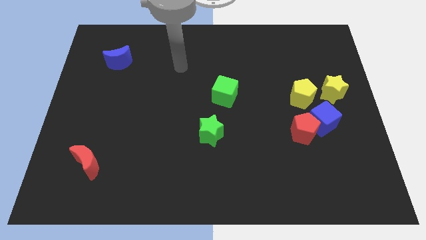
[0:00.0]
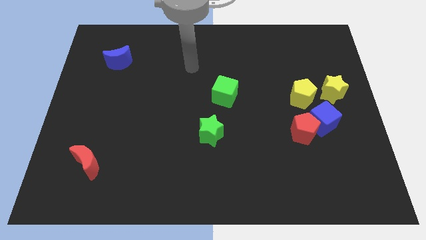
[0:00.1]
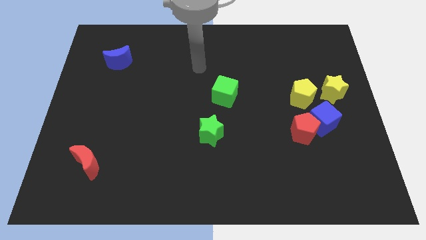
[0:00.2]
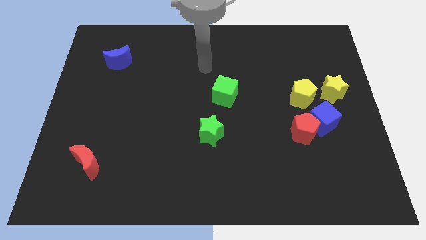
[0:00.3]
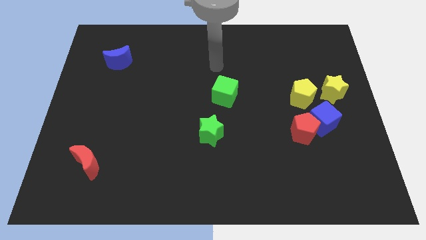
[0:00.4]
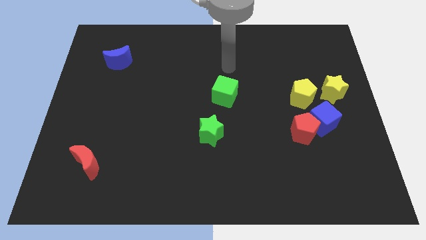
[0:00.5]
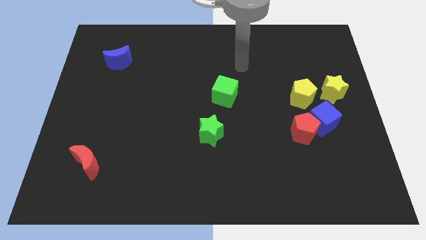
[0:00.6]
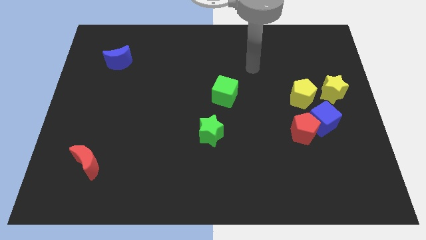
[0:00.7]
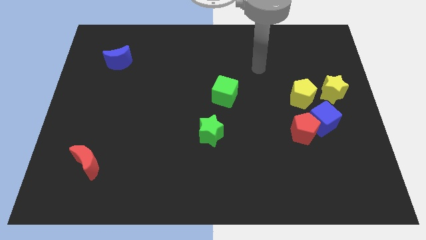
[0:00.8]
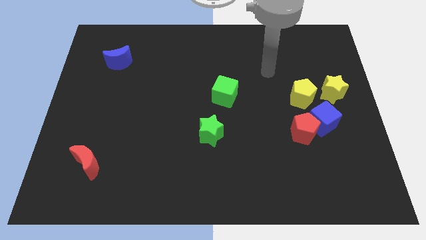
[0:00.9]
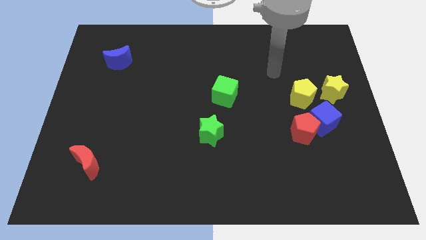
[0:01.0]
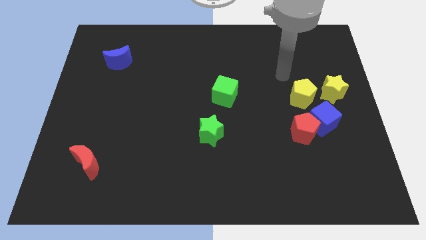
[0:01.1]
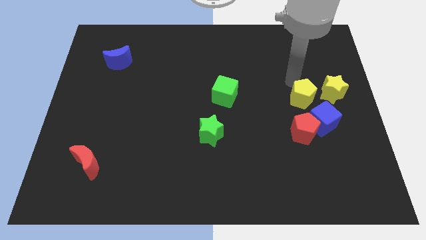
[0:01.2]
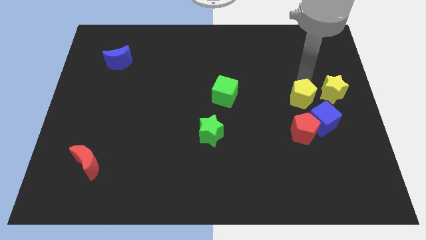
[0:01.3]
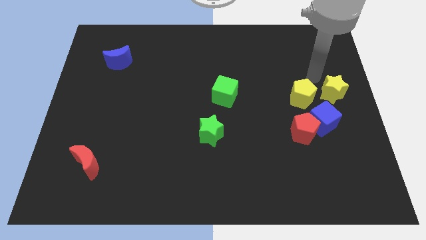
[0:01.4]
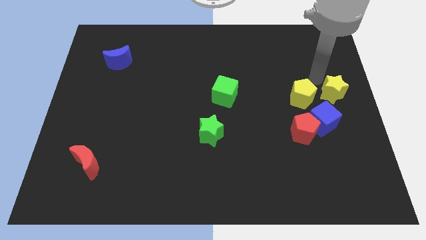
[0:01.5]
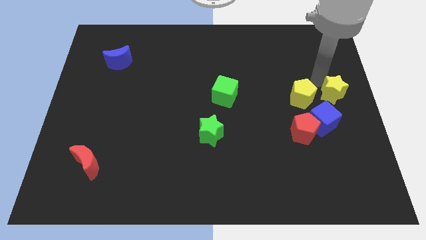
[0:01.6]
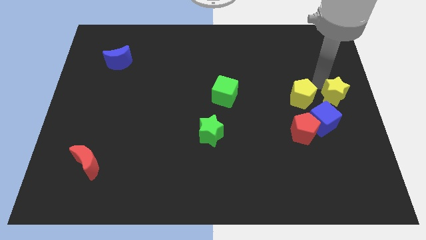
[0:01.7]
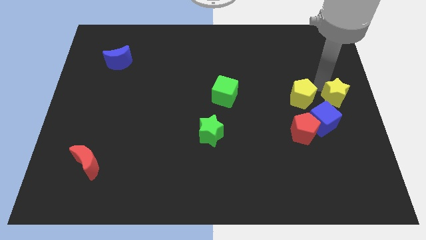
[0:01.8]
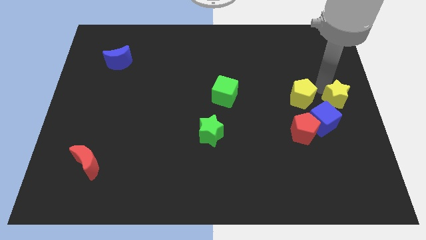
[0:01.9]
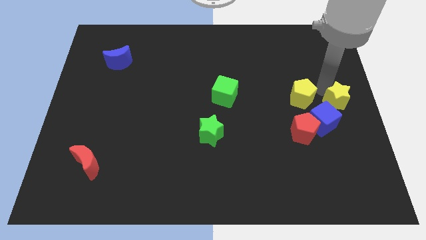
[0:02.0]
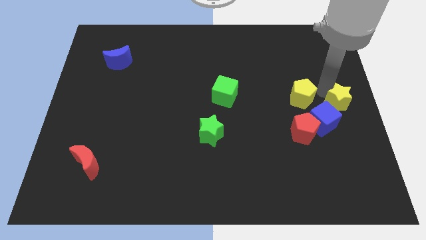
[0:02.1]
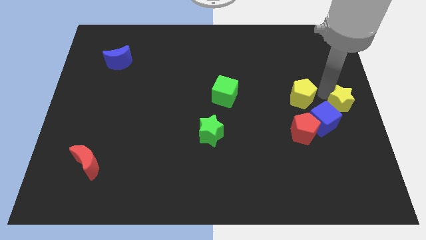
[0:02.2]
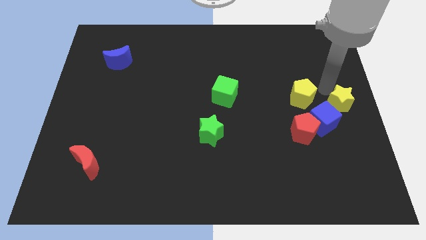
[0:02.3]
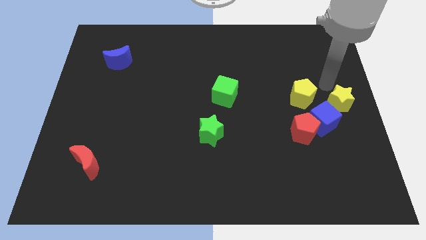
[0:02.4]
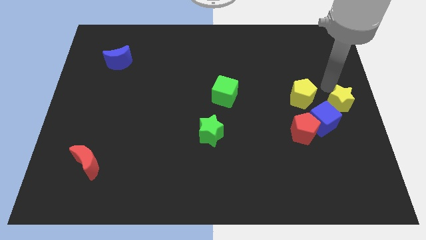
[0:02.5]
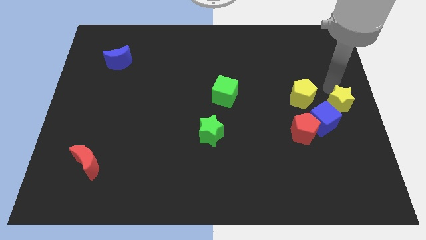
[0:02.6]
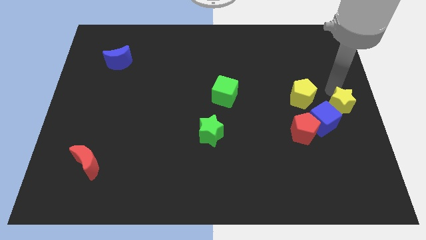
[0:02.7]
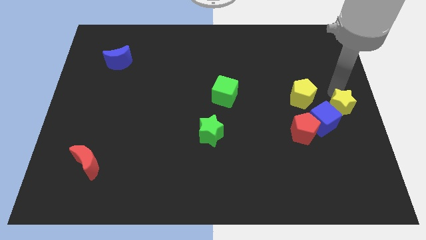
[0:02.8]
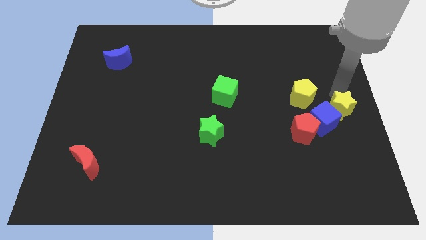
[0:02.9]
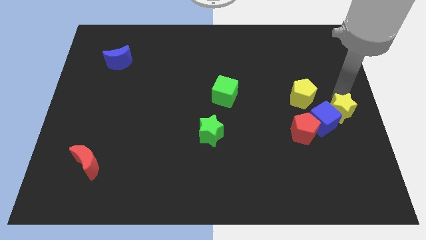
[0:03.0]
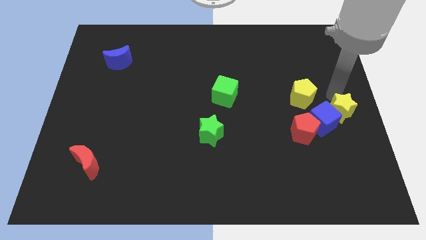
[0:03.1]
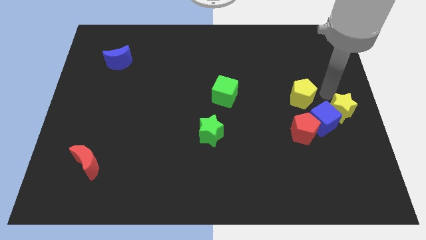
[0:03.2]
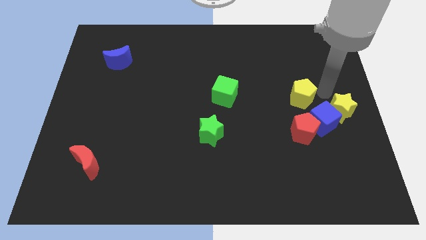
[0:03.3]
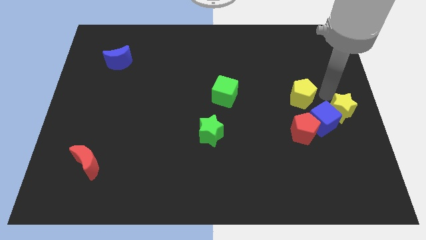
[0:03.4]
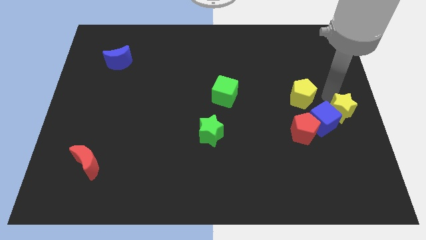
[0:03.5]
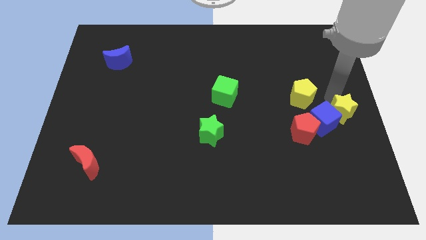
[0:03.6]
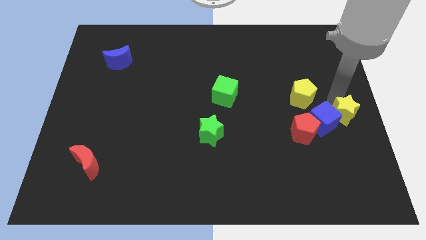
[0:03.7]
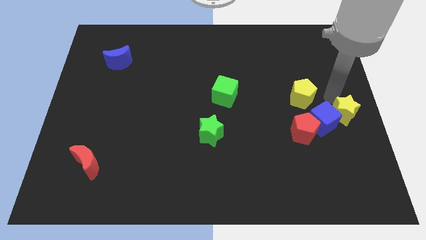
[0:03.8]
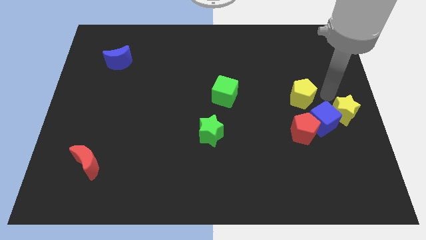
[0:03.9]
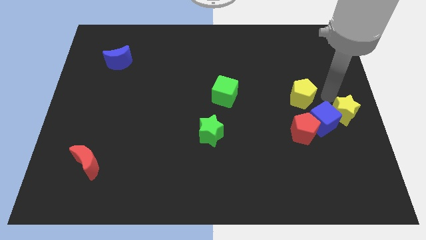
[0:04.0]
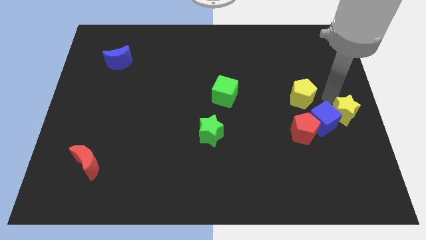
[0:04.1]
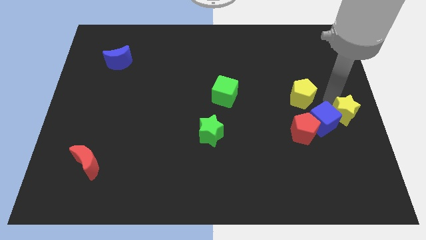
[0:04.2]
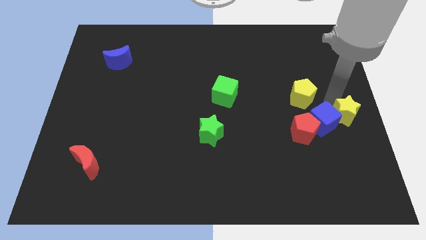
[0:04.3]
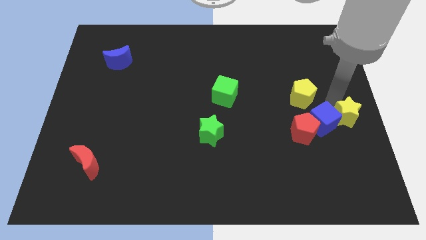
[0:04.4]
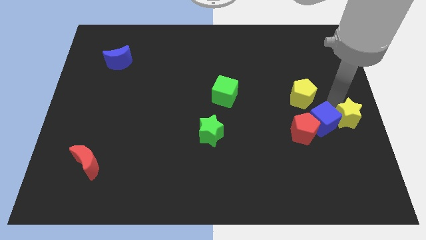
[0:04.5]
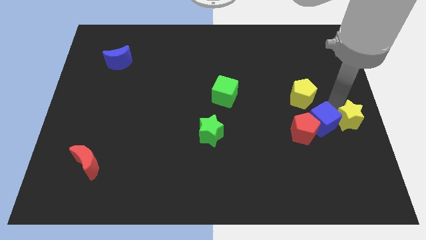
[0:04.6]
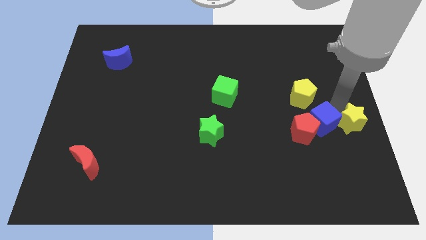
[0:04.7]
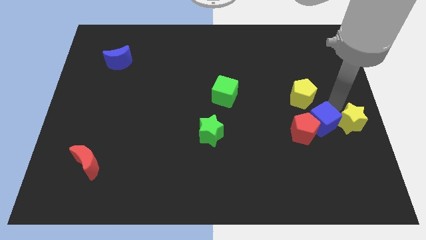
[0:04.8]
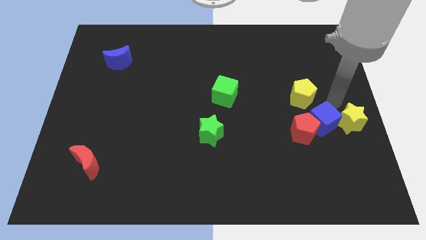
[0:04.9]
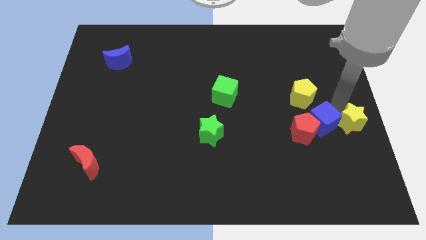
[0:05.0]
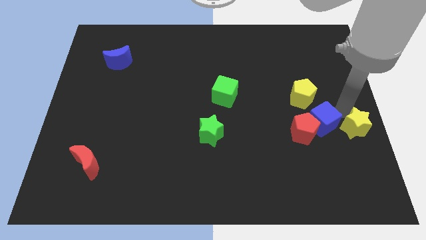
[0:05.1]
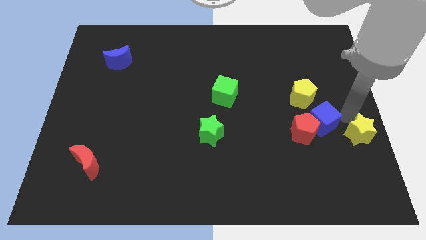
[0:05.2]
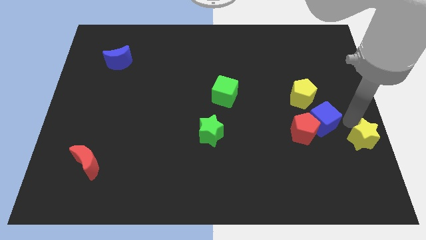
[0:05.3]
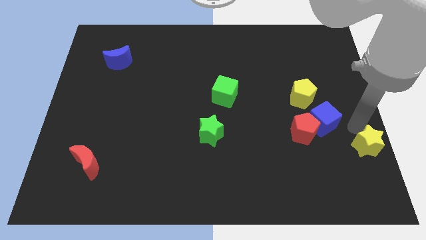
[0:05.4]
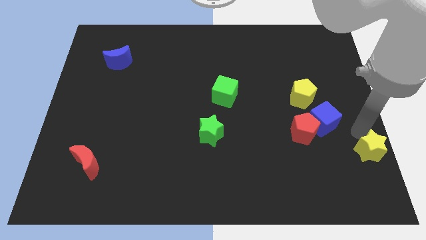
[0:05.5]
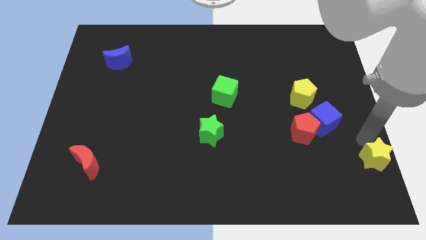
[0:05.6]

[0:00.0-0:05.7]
push the yellow star to the bottom right
